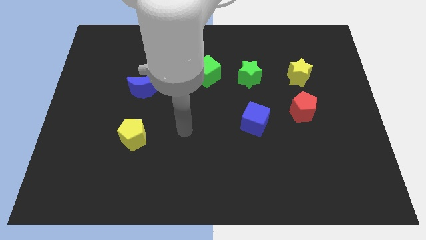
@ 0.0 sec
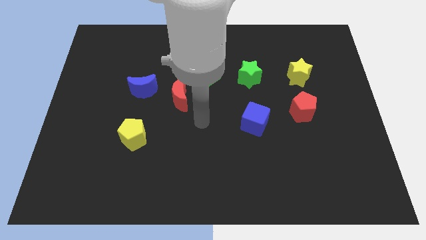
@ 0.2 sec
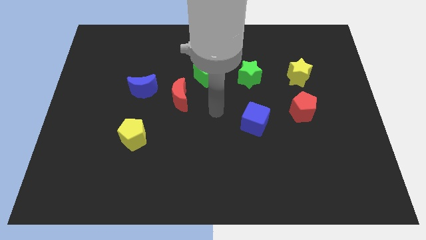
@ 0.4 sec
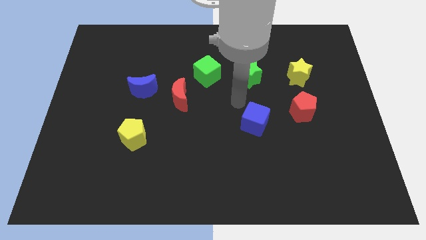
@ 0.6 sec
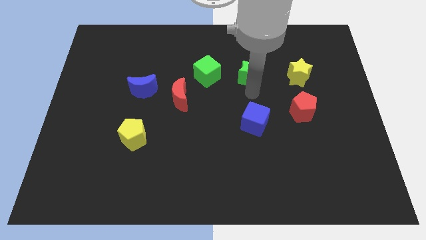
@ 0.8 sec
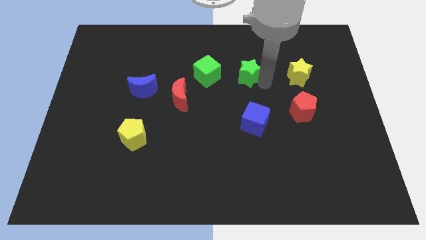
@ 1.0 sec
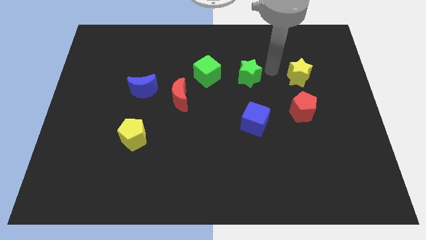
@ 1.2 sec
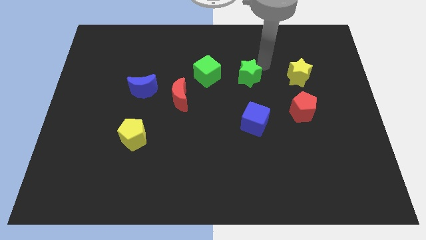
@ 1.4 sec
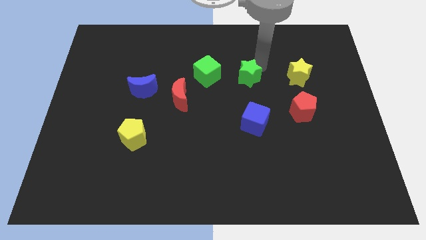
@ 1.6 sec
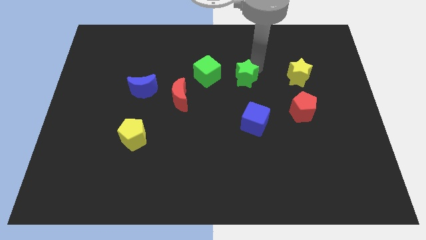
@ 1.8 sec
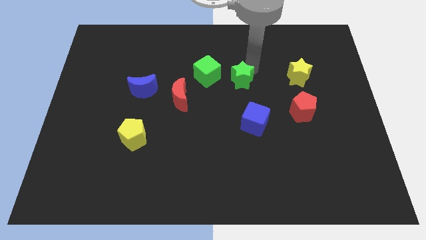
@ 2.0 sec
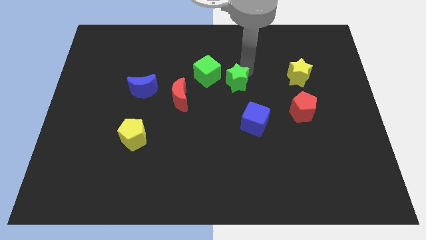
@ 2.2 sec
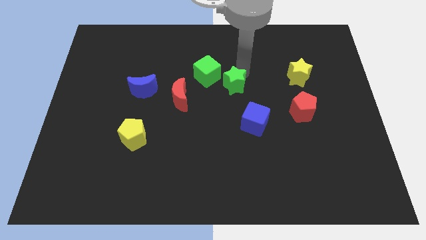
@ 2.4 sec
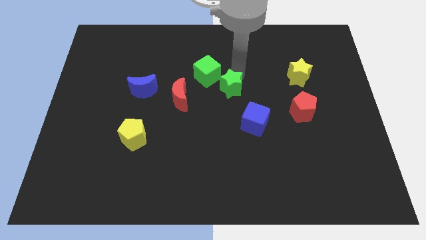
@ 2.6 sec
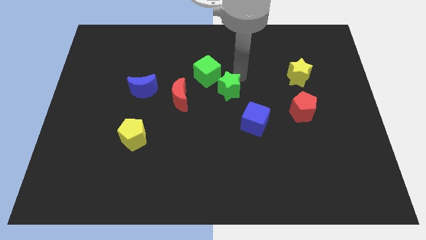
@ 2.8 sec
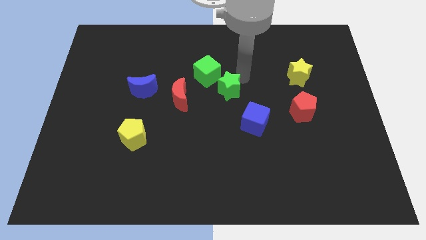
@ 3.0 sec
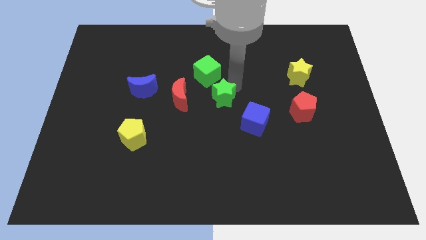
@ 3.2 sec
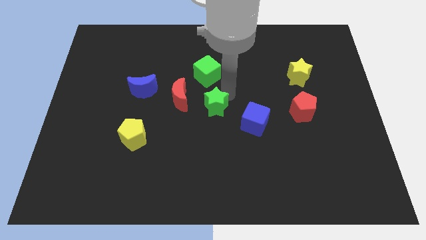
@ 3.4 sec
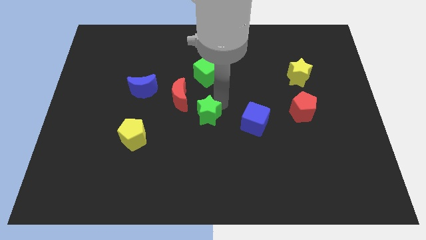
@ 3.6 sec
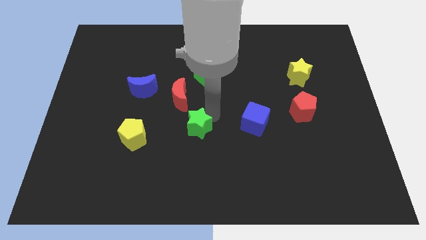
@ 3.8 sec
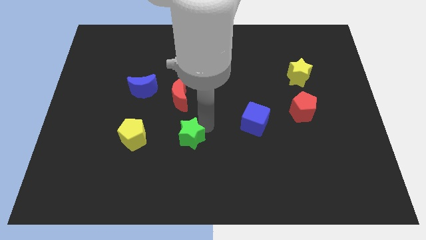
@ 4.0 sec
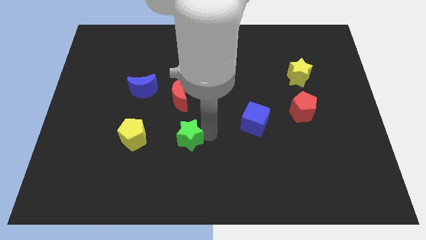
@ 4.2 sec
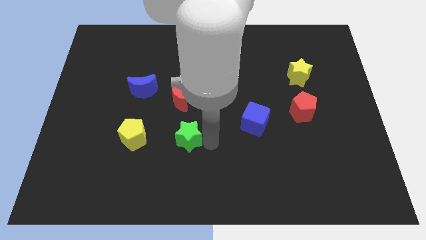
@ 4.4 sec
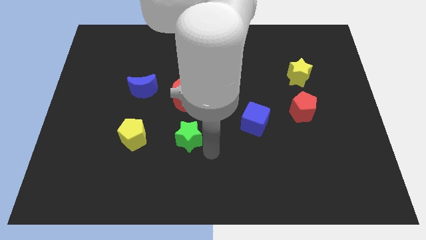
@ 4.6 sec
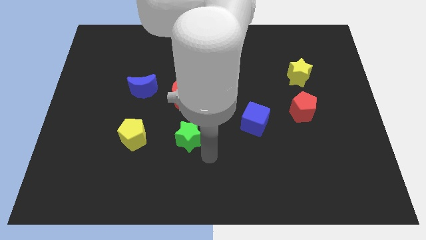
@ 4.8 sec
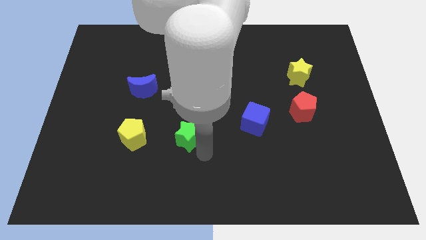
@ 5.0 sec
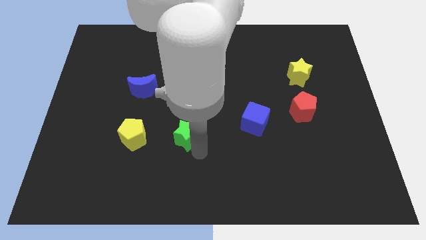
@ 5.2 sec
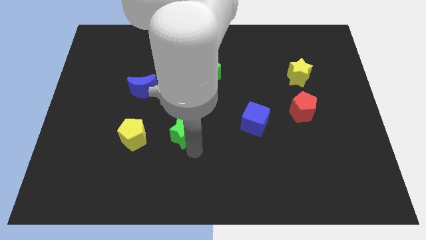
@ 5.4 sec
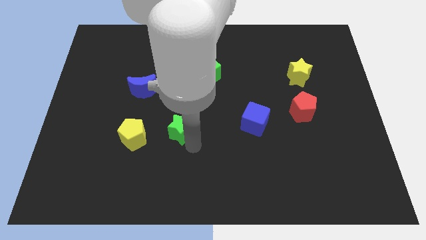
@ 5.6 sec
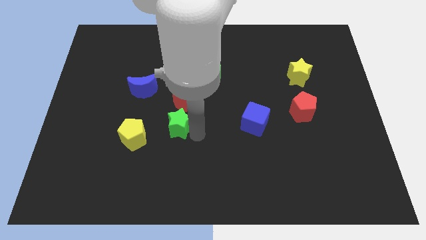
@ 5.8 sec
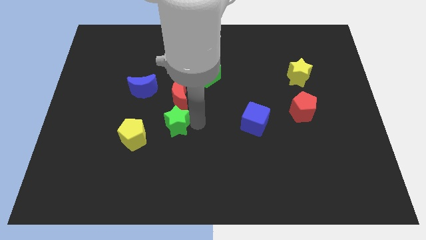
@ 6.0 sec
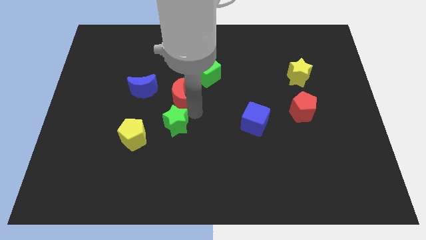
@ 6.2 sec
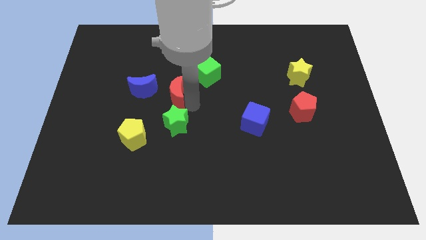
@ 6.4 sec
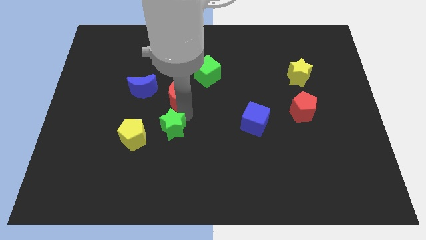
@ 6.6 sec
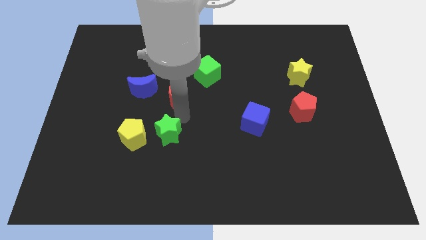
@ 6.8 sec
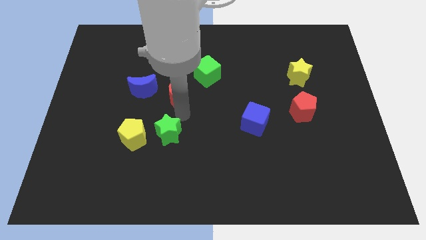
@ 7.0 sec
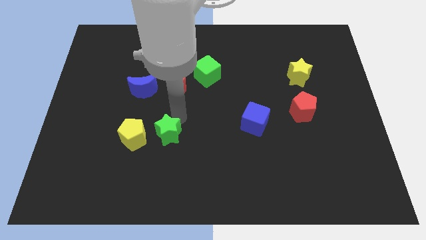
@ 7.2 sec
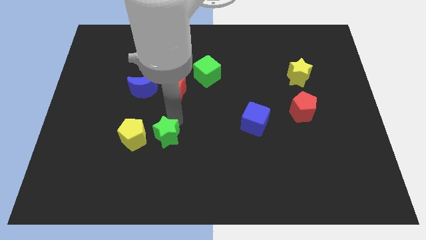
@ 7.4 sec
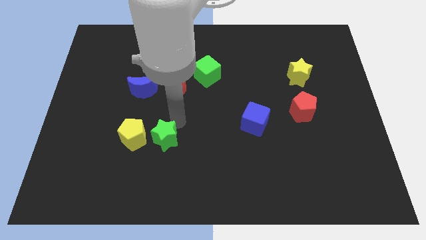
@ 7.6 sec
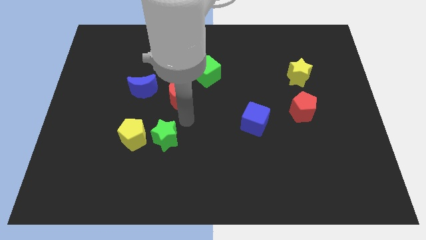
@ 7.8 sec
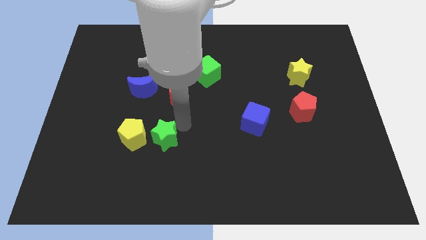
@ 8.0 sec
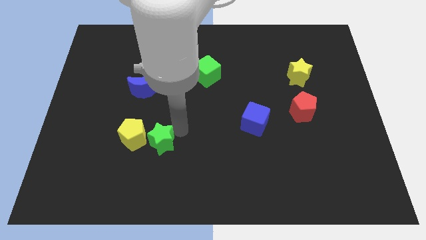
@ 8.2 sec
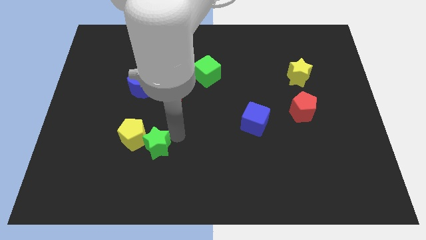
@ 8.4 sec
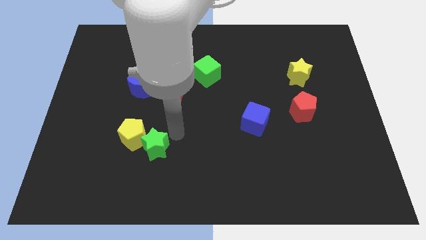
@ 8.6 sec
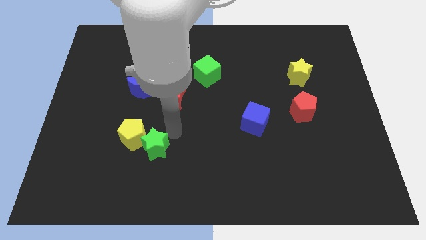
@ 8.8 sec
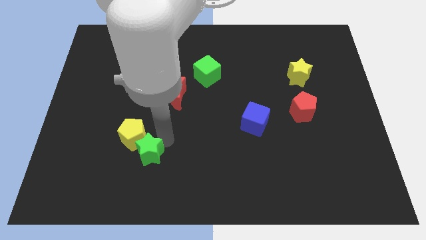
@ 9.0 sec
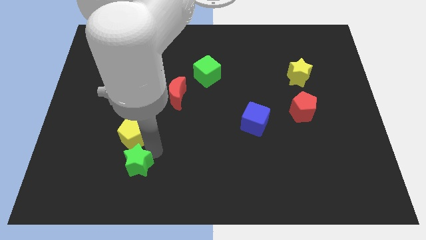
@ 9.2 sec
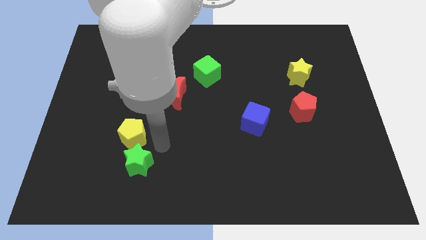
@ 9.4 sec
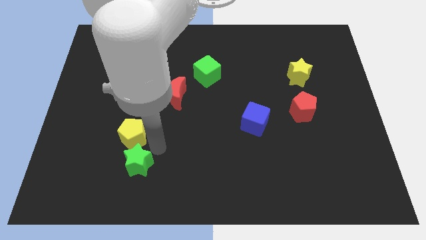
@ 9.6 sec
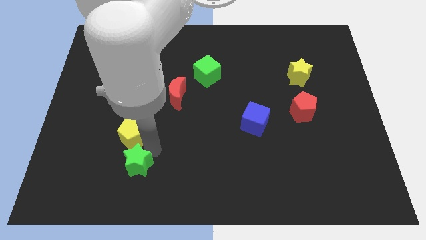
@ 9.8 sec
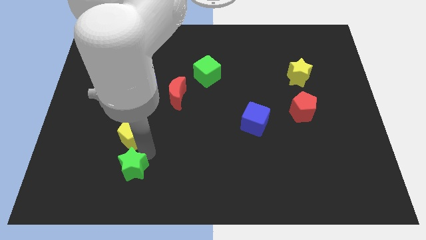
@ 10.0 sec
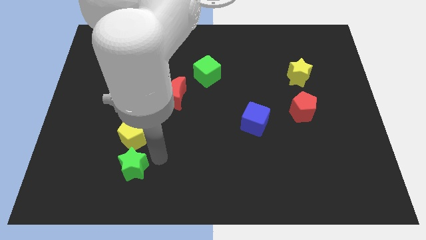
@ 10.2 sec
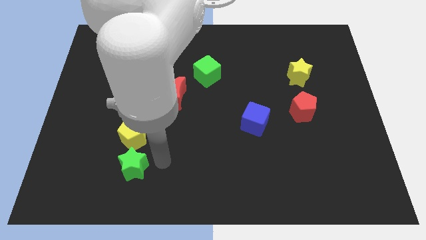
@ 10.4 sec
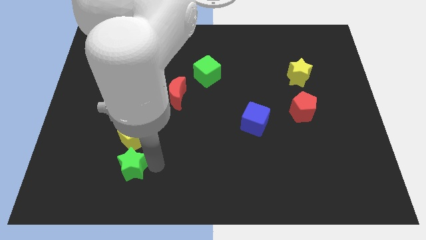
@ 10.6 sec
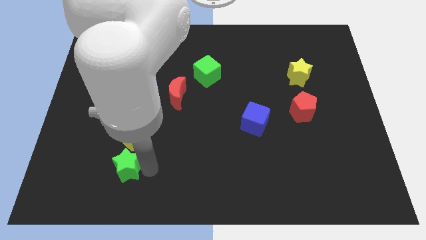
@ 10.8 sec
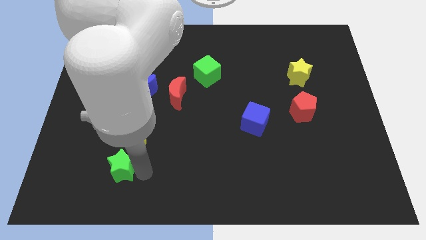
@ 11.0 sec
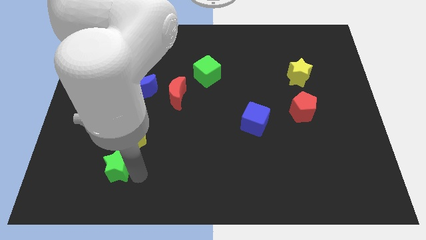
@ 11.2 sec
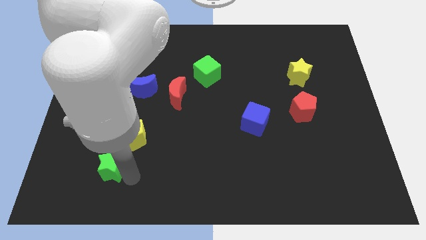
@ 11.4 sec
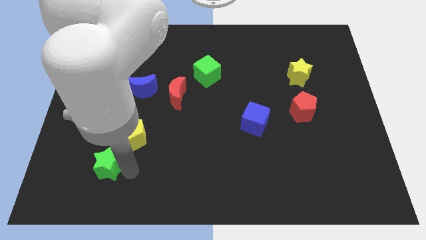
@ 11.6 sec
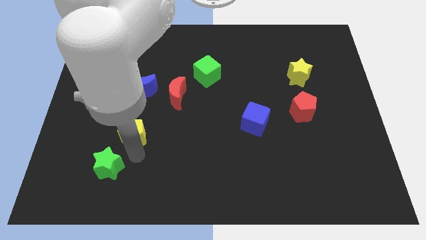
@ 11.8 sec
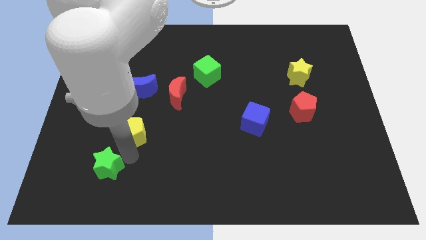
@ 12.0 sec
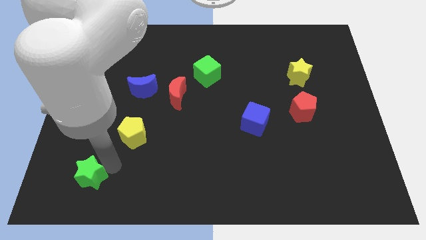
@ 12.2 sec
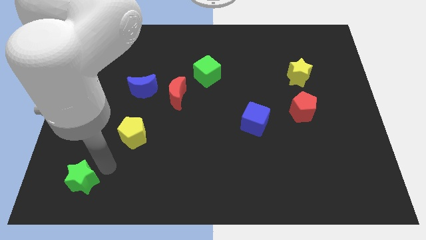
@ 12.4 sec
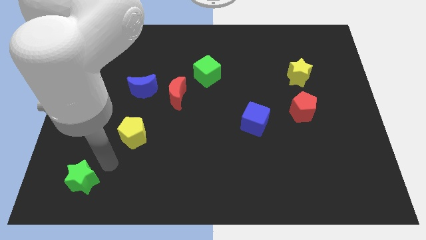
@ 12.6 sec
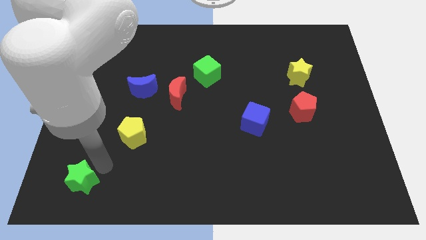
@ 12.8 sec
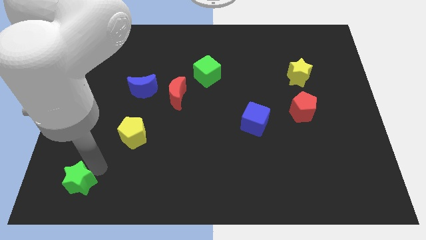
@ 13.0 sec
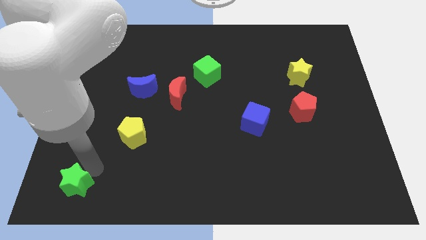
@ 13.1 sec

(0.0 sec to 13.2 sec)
move the green star to the bottom left corner
